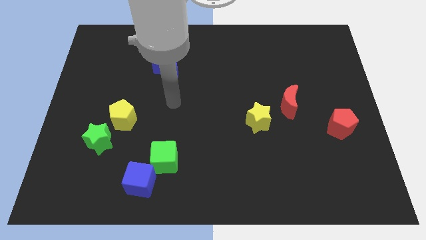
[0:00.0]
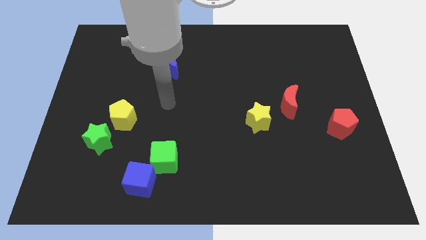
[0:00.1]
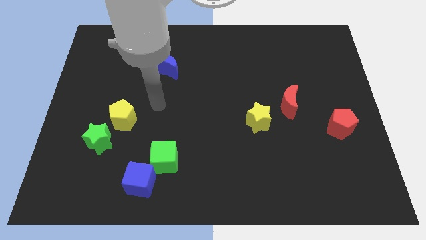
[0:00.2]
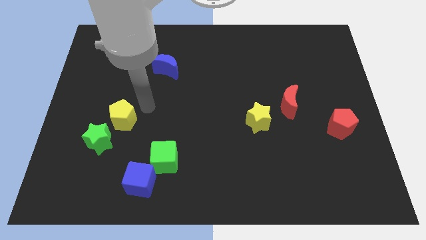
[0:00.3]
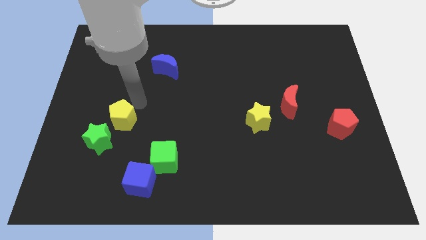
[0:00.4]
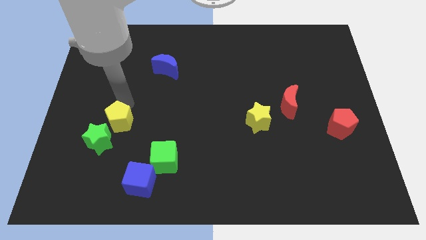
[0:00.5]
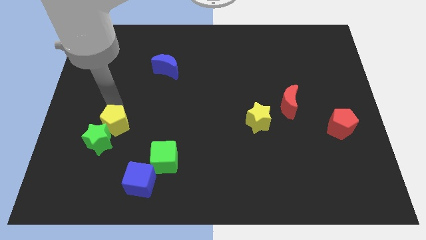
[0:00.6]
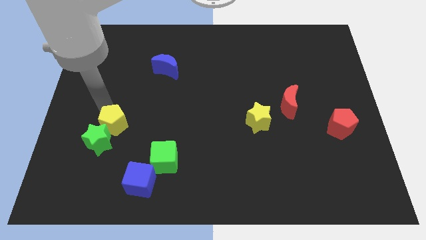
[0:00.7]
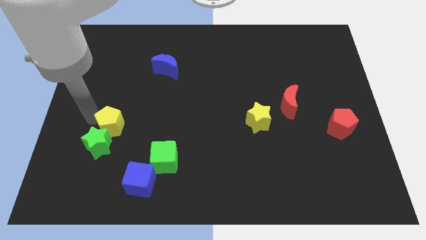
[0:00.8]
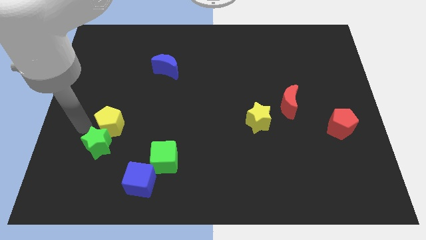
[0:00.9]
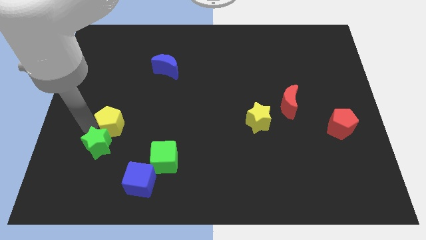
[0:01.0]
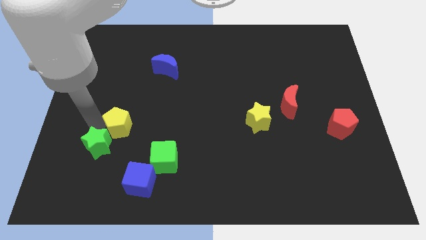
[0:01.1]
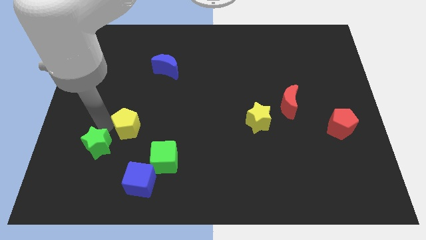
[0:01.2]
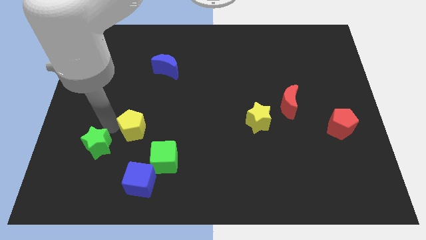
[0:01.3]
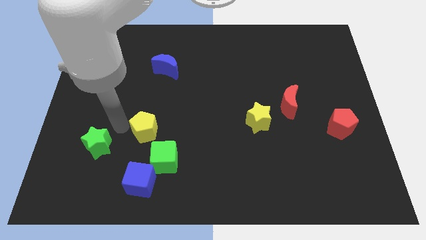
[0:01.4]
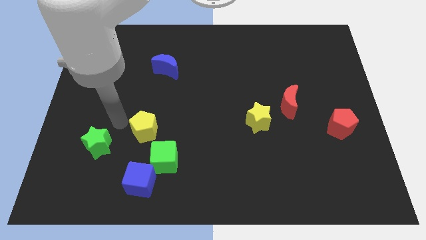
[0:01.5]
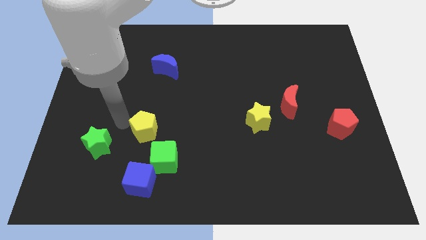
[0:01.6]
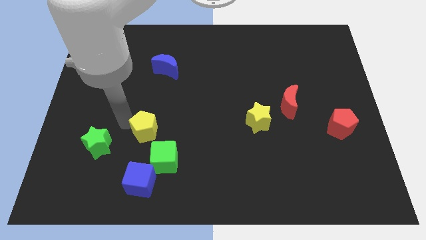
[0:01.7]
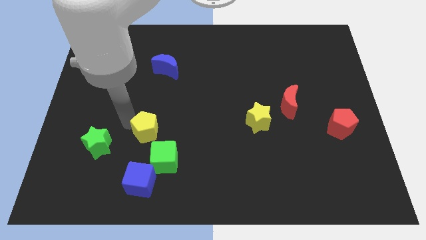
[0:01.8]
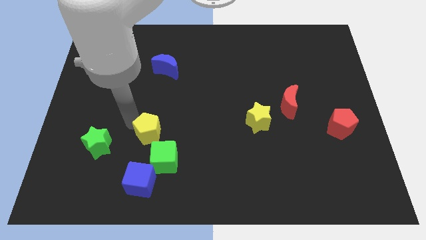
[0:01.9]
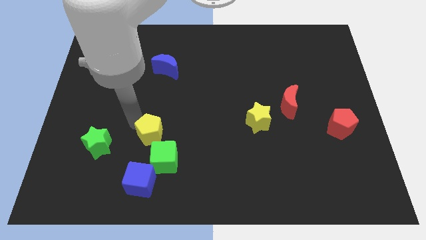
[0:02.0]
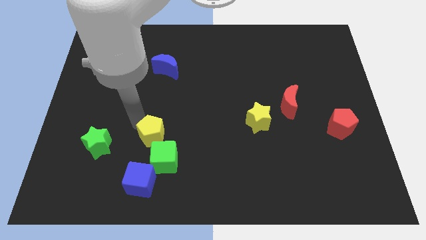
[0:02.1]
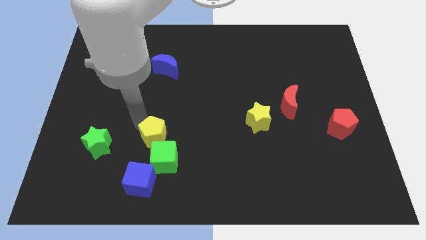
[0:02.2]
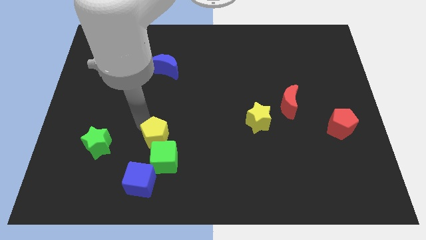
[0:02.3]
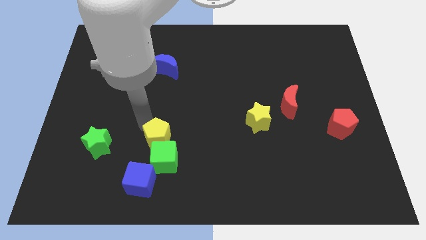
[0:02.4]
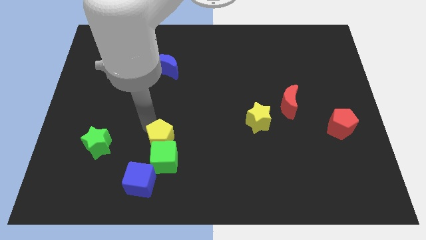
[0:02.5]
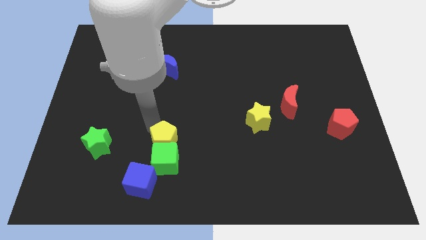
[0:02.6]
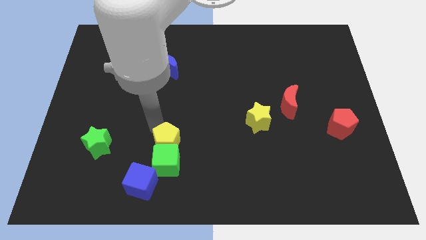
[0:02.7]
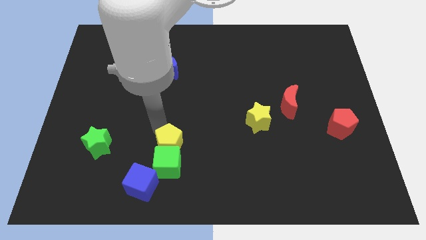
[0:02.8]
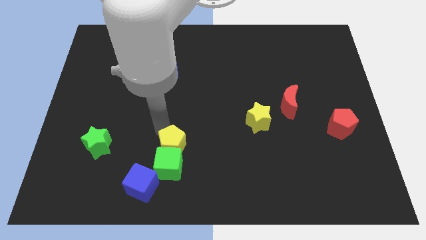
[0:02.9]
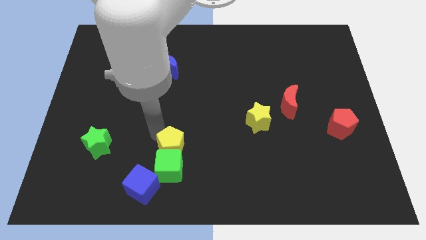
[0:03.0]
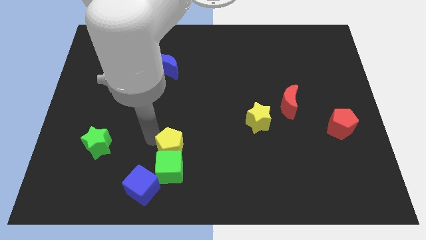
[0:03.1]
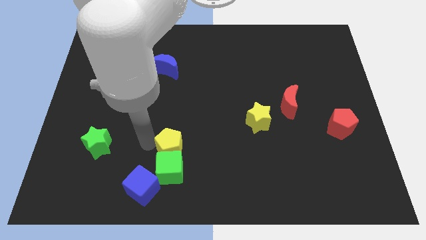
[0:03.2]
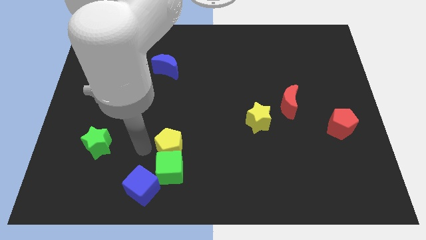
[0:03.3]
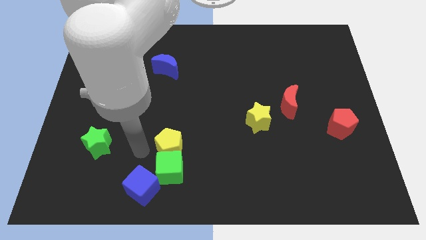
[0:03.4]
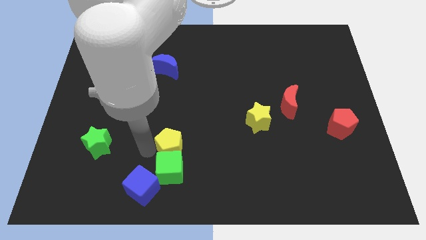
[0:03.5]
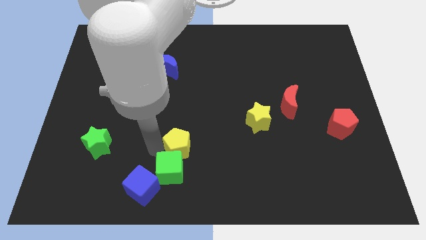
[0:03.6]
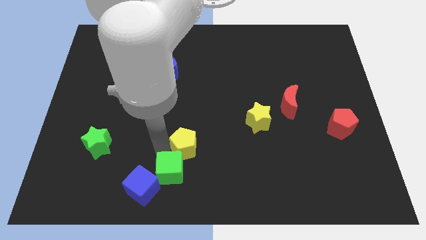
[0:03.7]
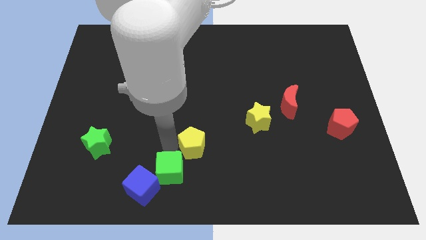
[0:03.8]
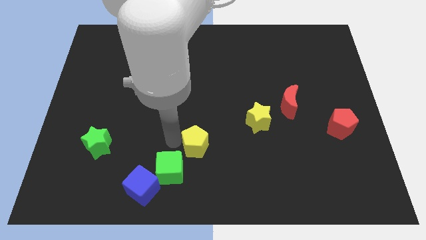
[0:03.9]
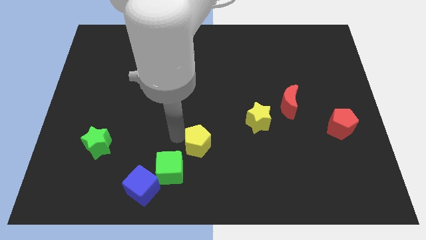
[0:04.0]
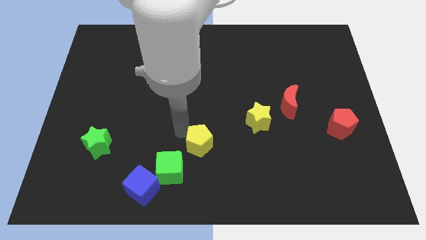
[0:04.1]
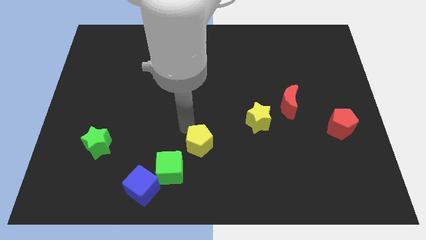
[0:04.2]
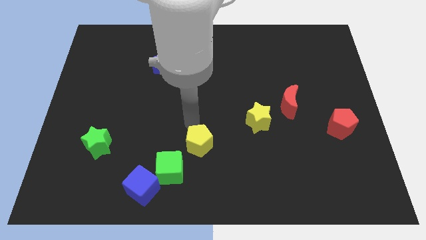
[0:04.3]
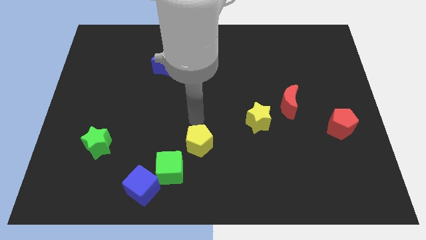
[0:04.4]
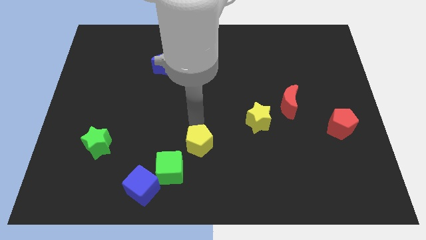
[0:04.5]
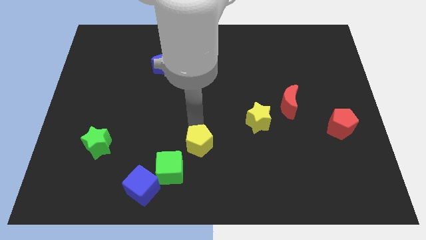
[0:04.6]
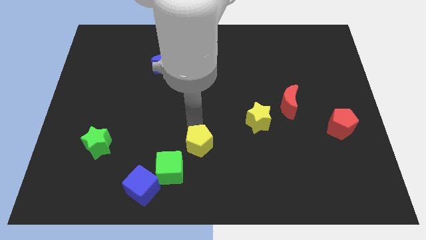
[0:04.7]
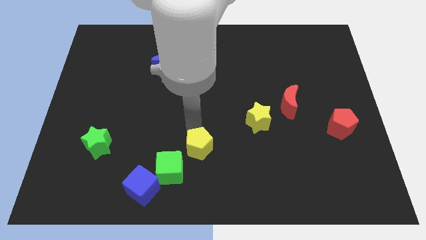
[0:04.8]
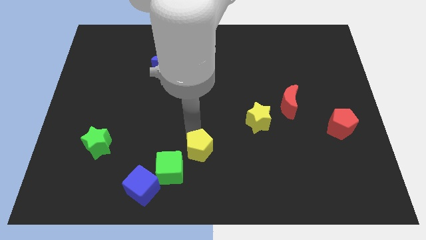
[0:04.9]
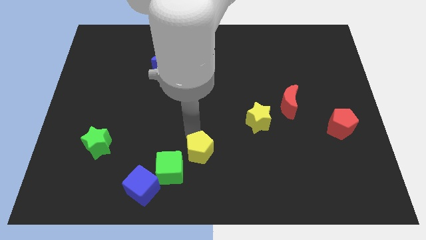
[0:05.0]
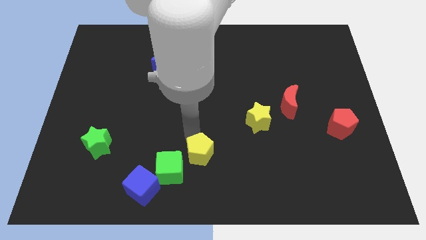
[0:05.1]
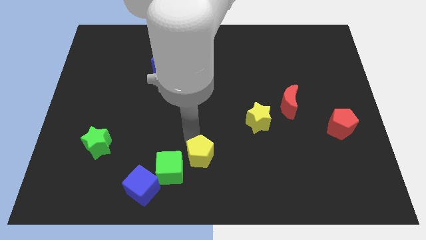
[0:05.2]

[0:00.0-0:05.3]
push the yellow pentagon to the bottom side

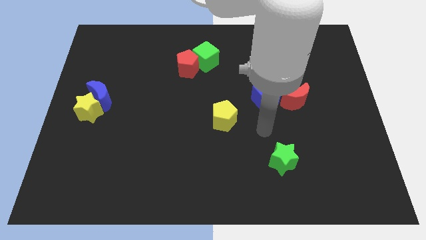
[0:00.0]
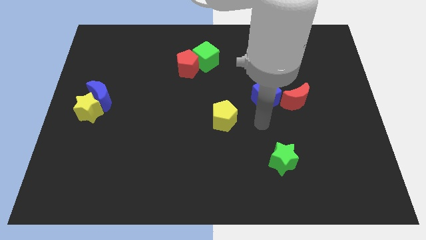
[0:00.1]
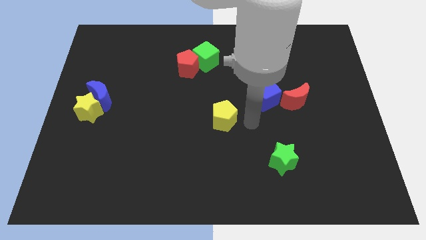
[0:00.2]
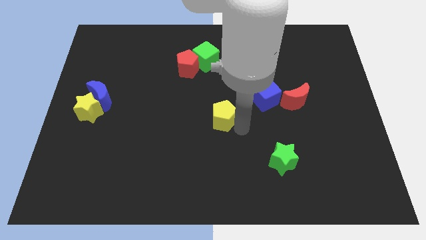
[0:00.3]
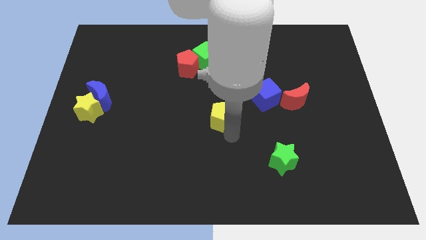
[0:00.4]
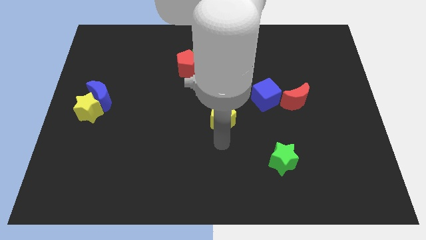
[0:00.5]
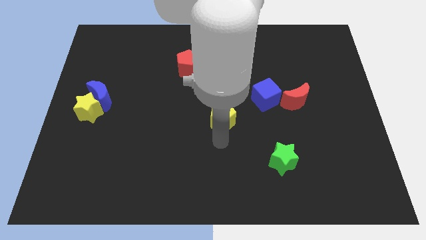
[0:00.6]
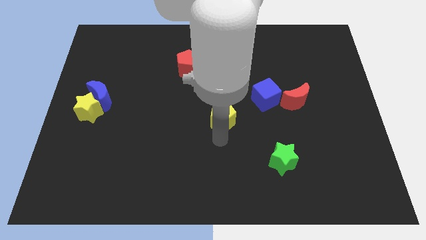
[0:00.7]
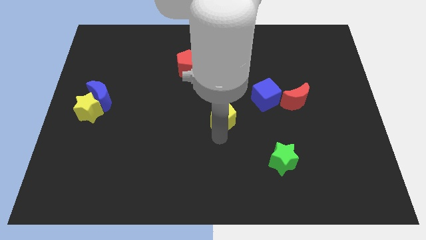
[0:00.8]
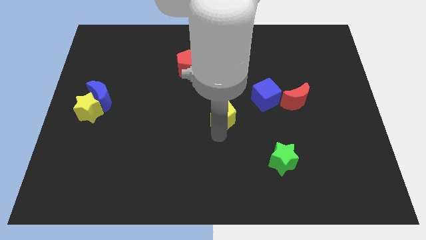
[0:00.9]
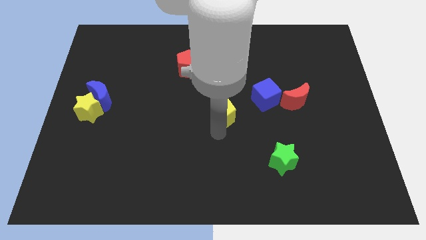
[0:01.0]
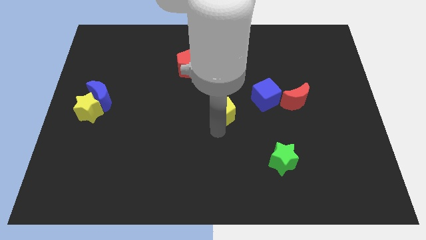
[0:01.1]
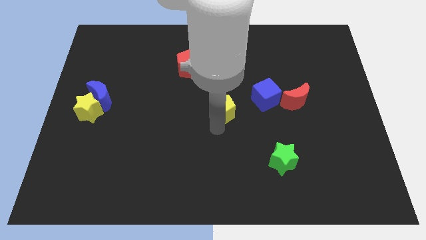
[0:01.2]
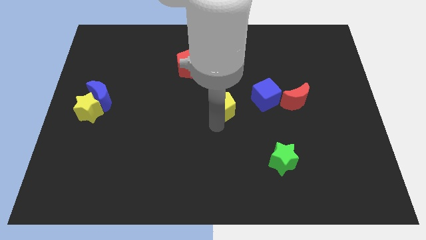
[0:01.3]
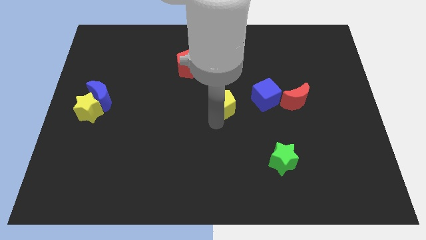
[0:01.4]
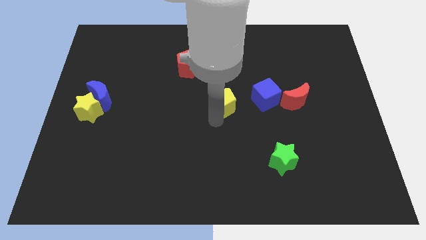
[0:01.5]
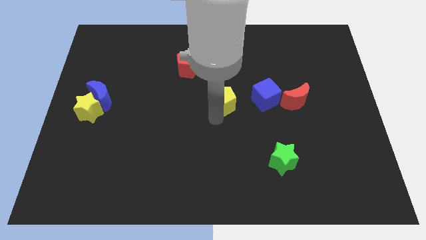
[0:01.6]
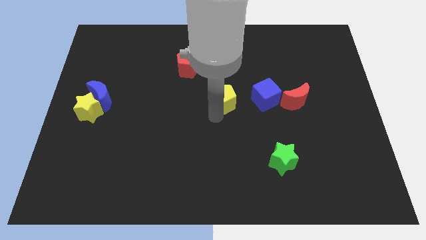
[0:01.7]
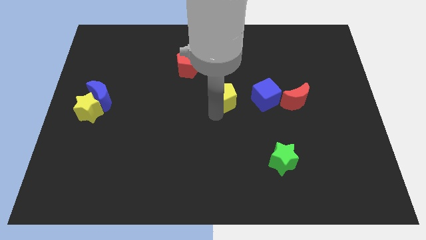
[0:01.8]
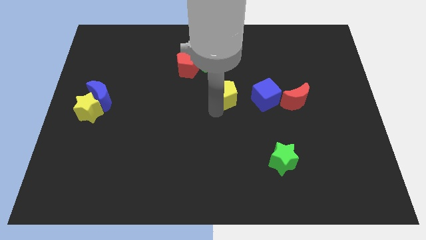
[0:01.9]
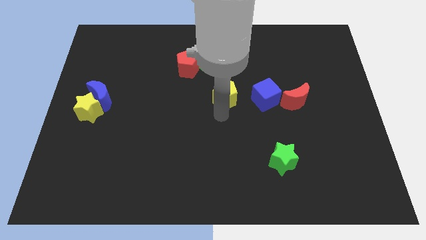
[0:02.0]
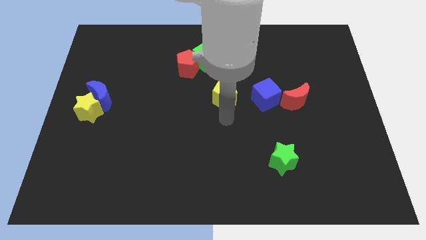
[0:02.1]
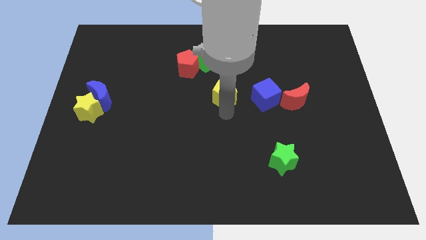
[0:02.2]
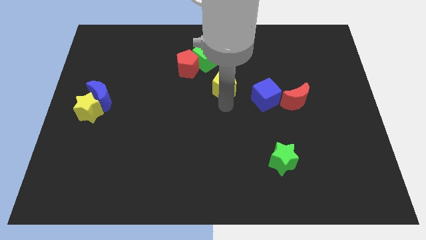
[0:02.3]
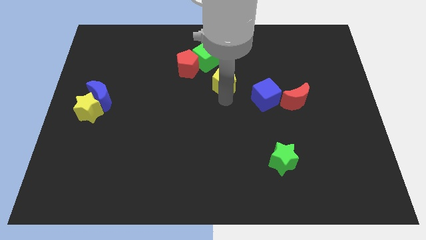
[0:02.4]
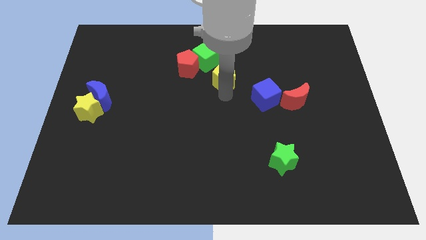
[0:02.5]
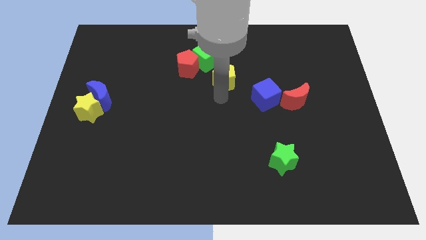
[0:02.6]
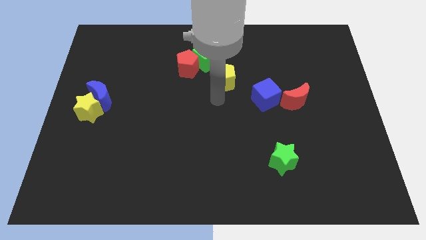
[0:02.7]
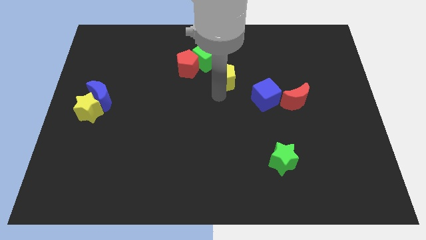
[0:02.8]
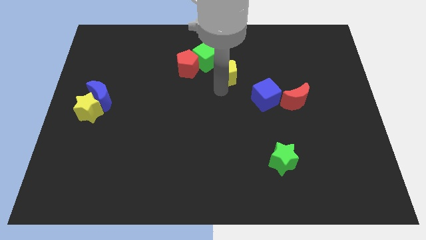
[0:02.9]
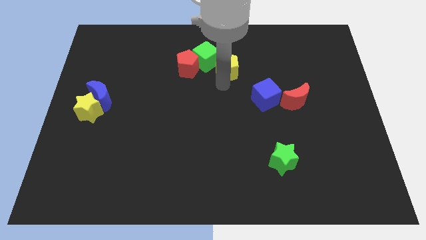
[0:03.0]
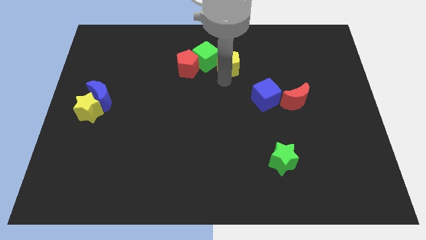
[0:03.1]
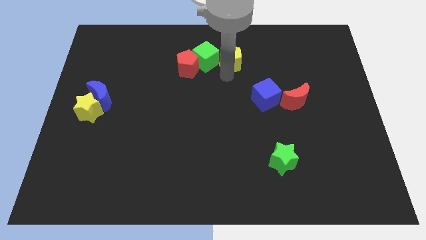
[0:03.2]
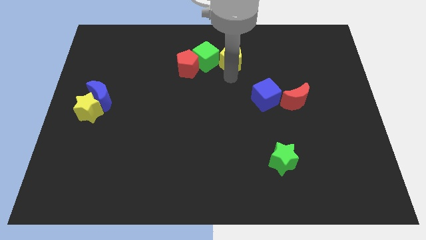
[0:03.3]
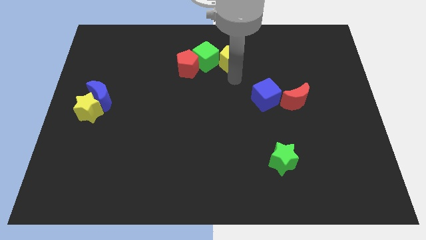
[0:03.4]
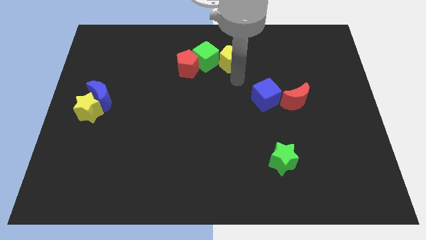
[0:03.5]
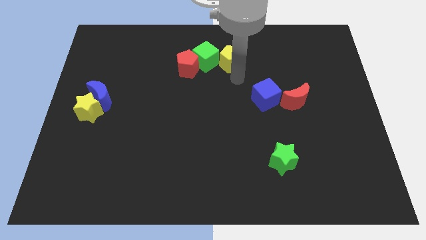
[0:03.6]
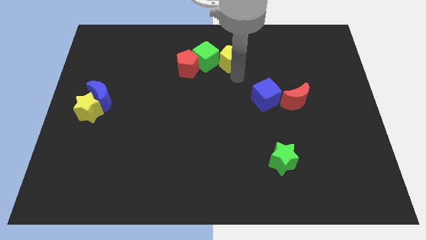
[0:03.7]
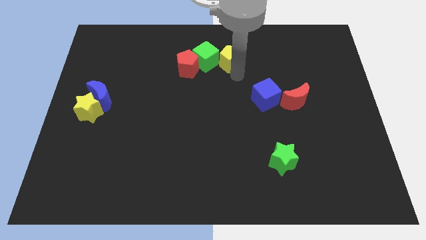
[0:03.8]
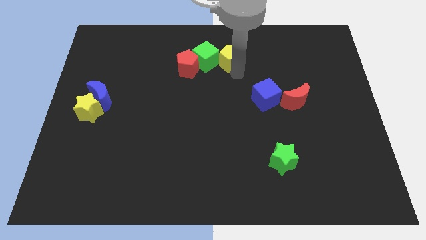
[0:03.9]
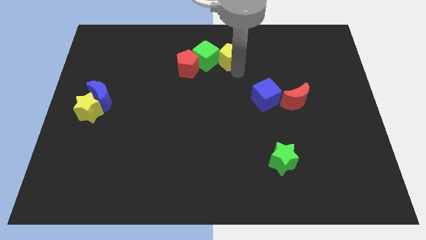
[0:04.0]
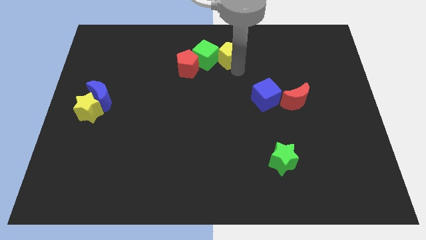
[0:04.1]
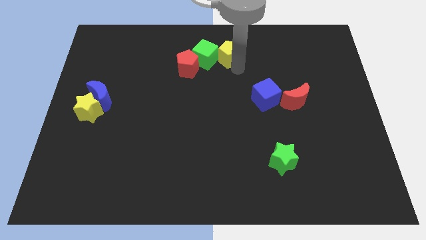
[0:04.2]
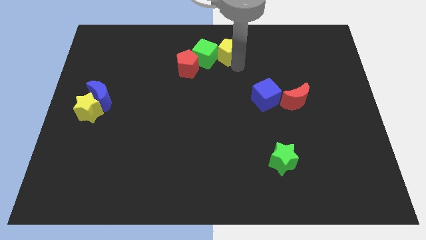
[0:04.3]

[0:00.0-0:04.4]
push the yellow pentagon to the top
